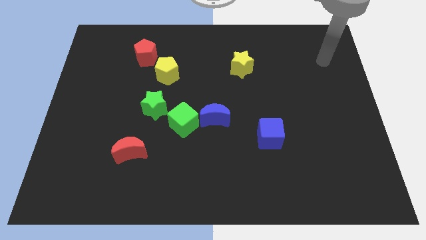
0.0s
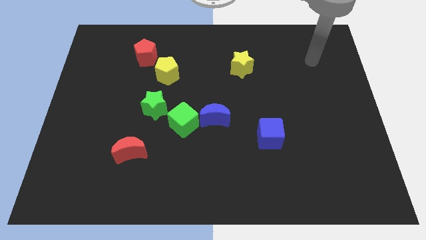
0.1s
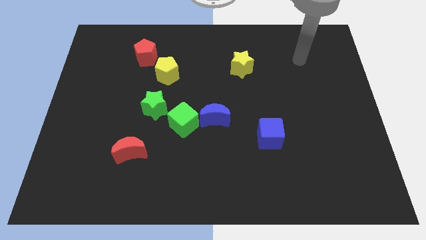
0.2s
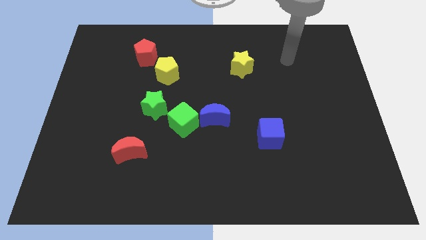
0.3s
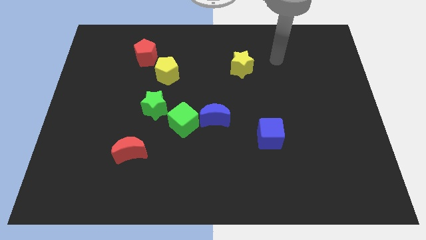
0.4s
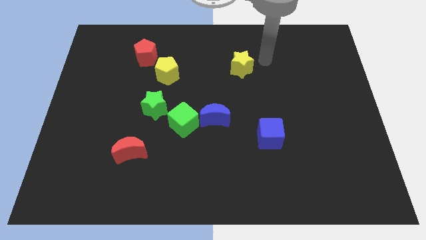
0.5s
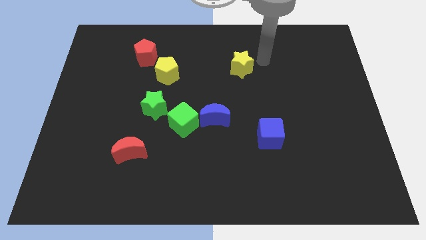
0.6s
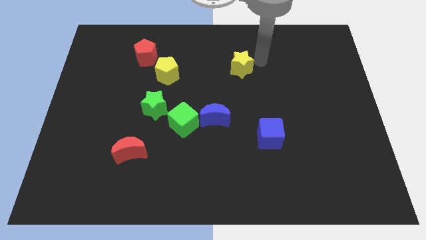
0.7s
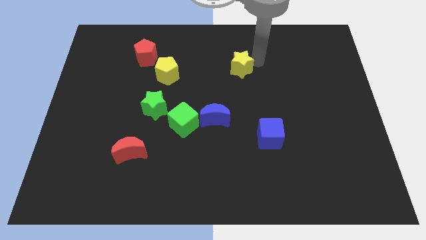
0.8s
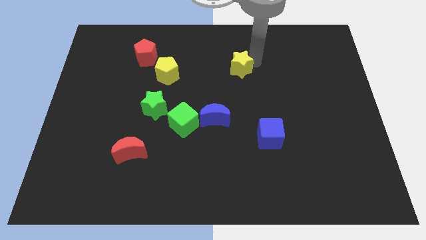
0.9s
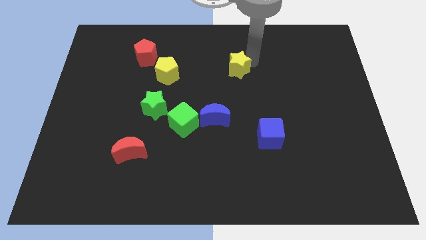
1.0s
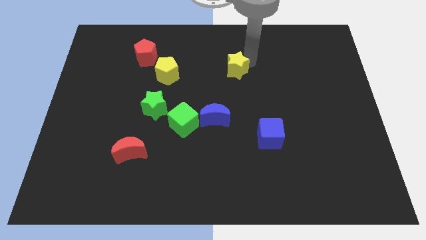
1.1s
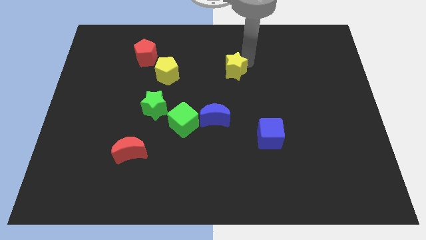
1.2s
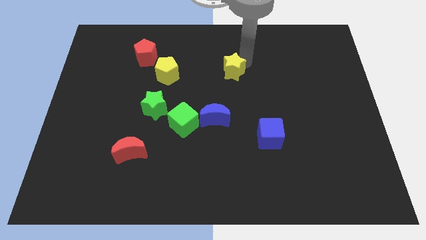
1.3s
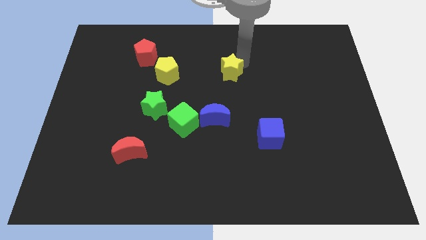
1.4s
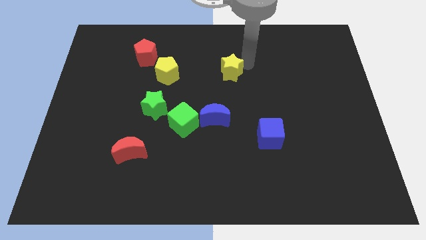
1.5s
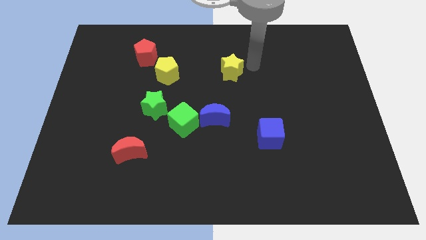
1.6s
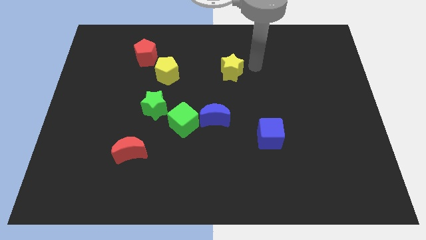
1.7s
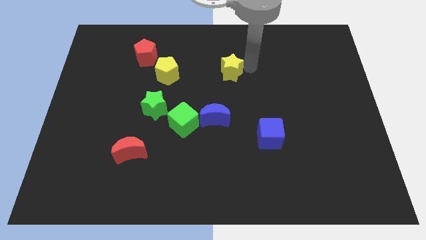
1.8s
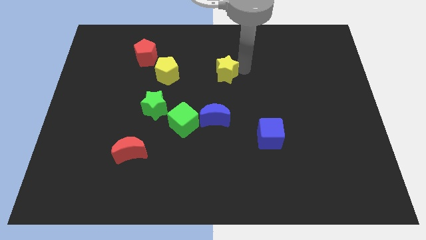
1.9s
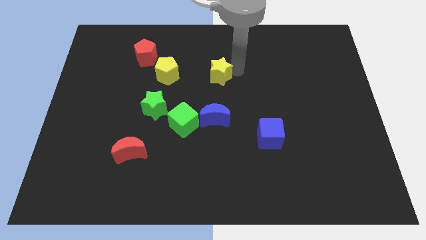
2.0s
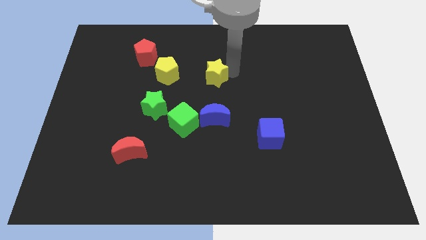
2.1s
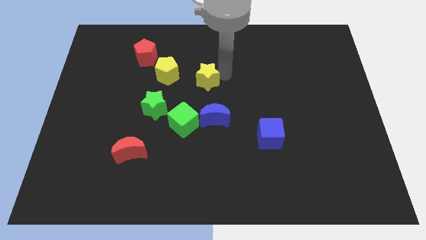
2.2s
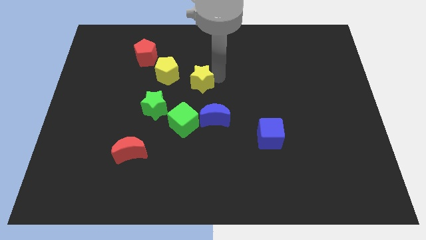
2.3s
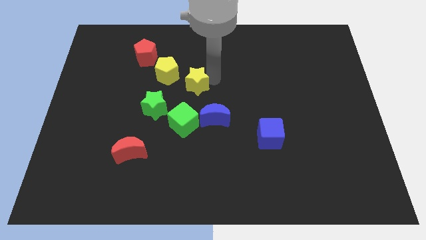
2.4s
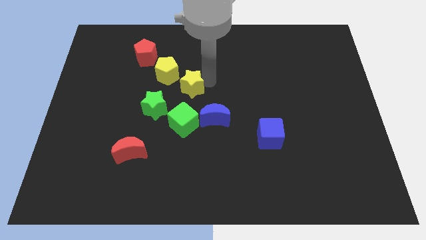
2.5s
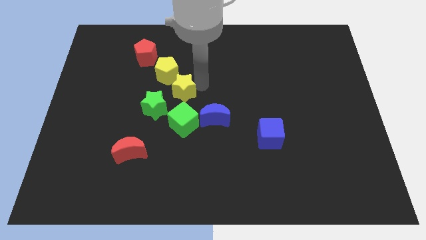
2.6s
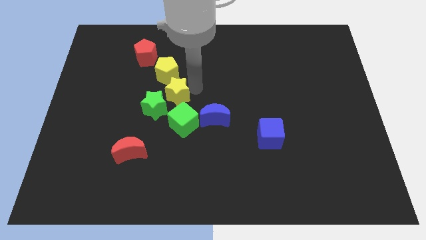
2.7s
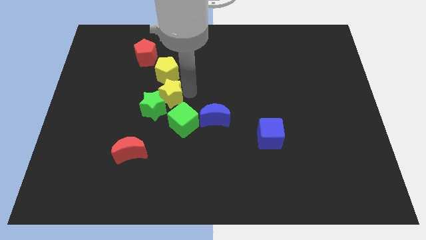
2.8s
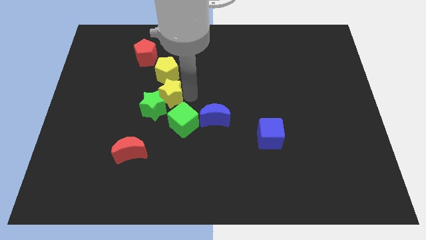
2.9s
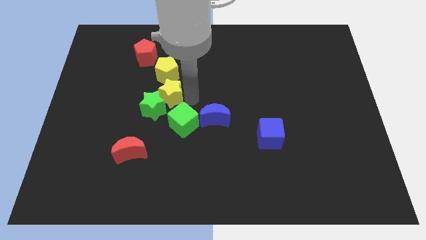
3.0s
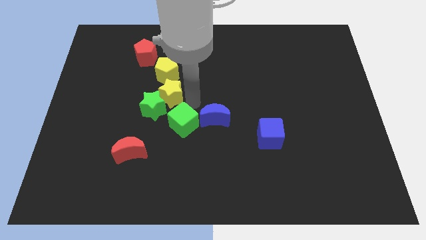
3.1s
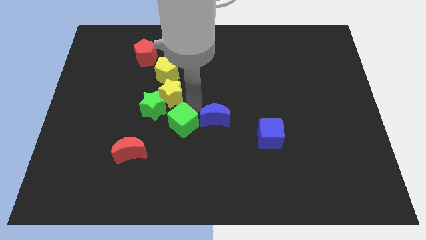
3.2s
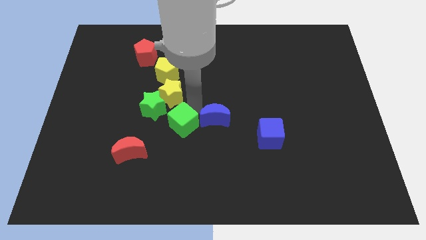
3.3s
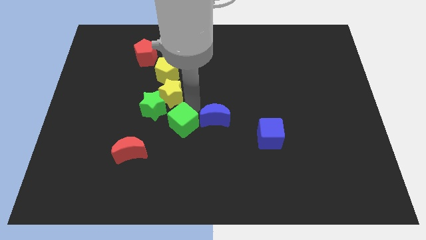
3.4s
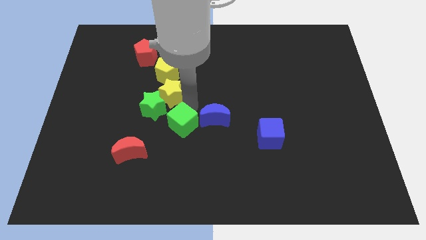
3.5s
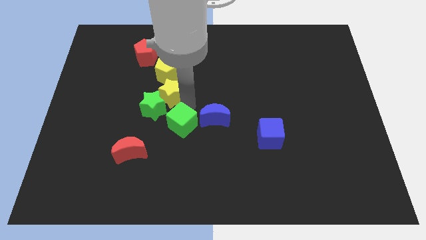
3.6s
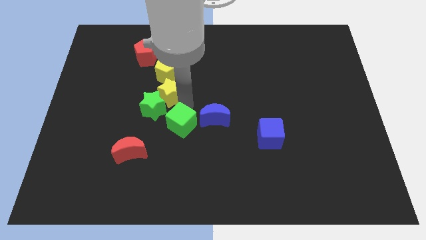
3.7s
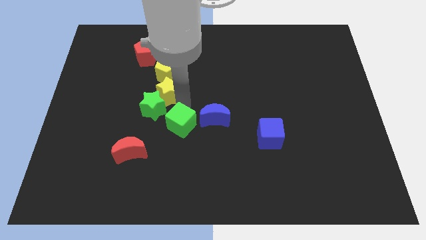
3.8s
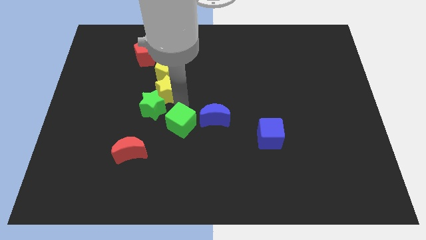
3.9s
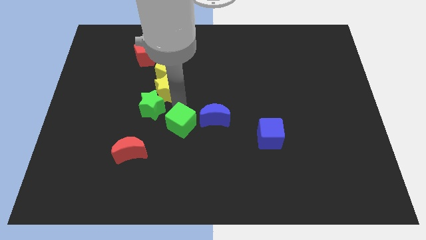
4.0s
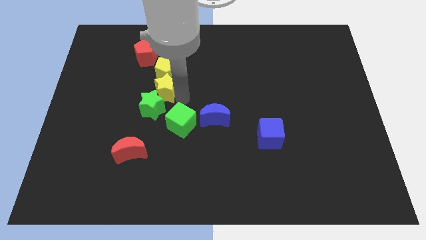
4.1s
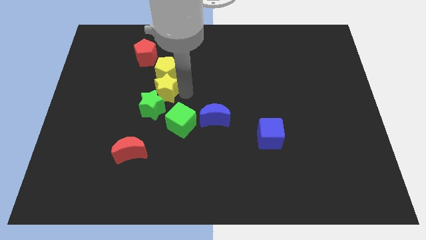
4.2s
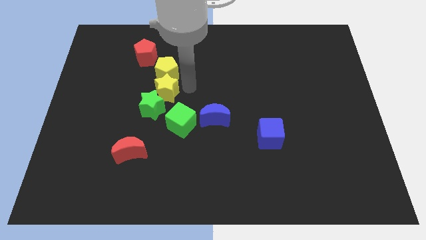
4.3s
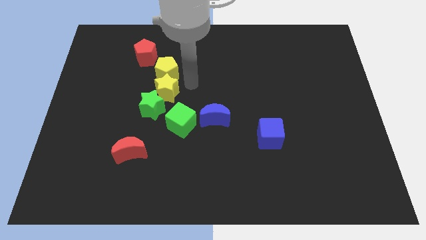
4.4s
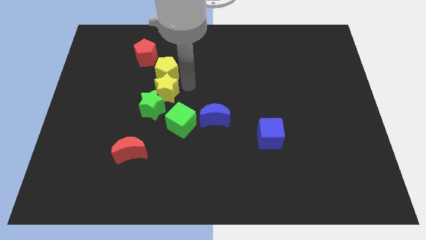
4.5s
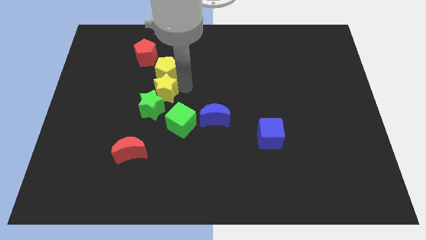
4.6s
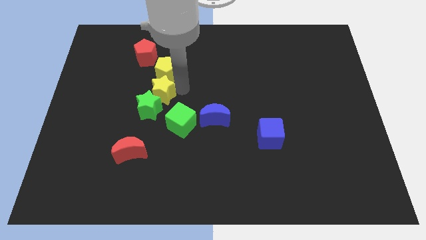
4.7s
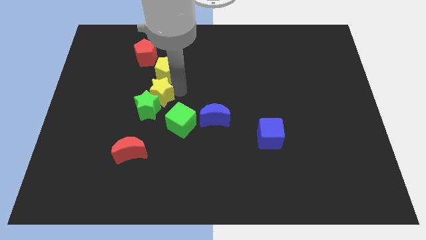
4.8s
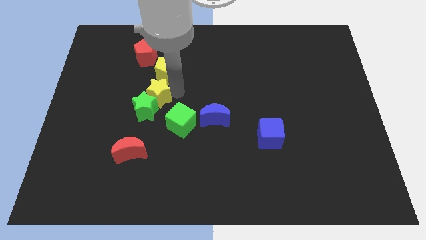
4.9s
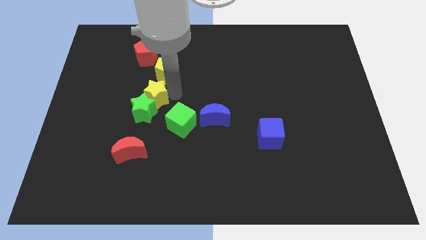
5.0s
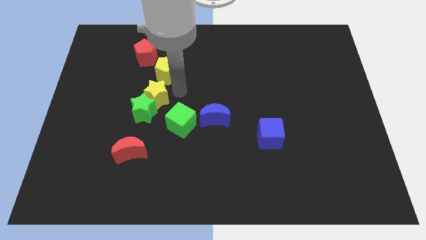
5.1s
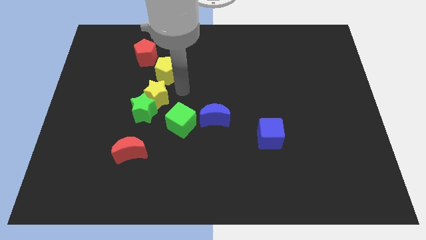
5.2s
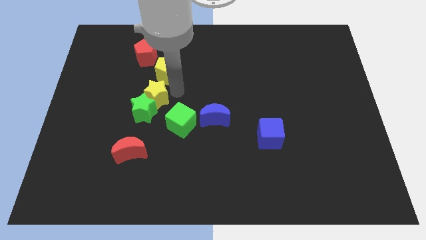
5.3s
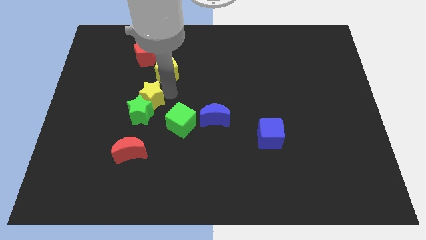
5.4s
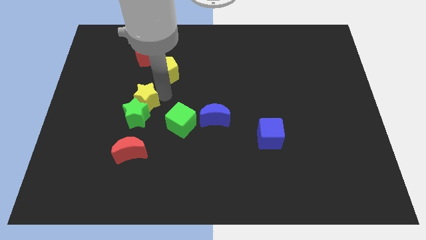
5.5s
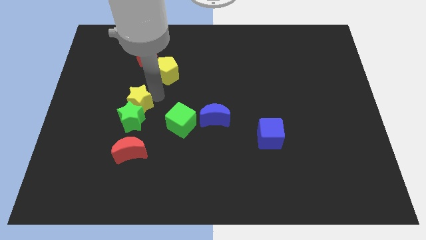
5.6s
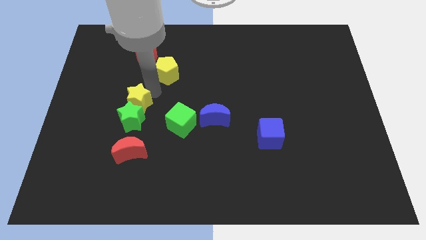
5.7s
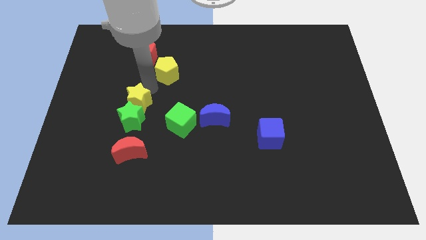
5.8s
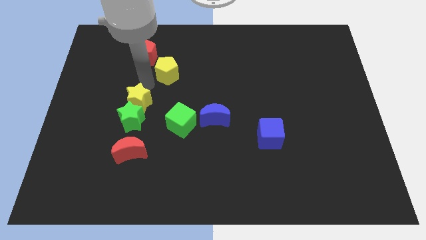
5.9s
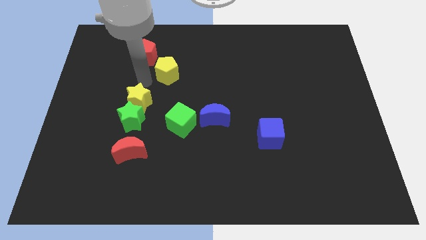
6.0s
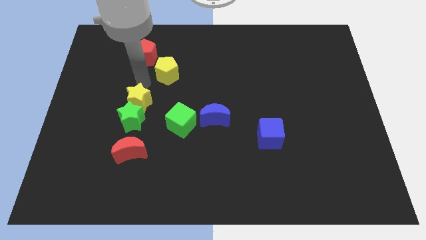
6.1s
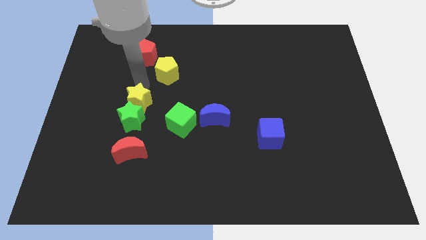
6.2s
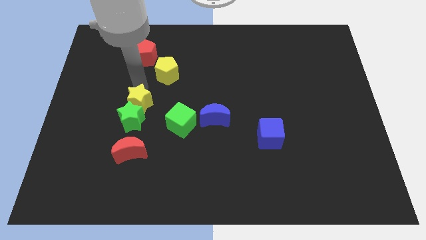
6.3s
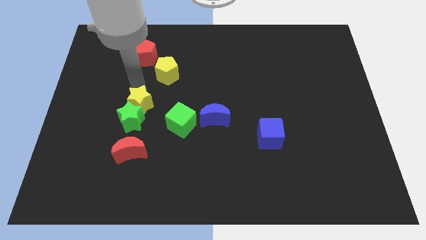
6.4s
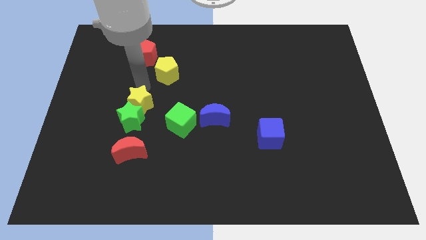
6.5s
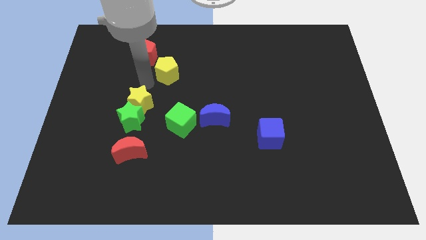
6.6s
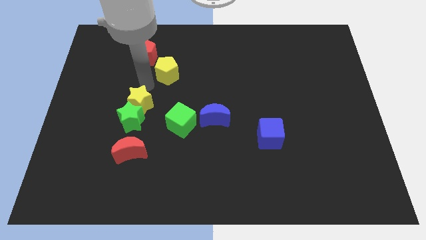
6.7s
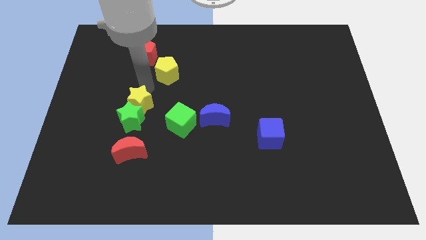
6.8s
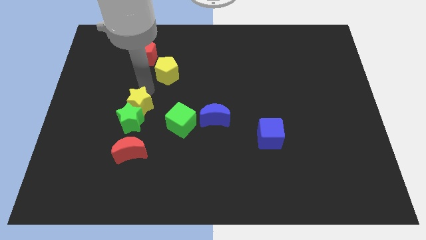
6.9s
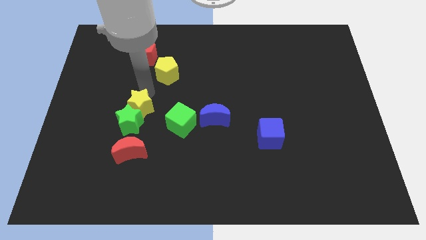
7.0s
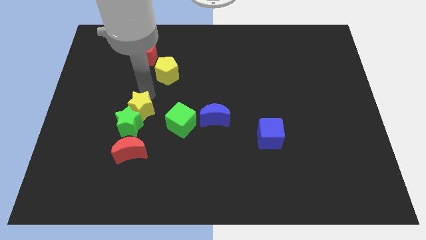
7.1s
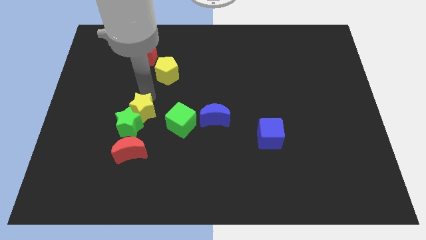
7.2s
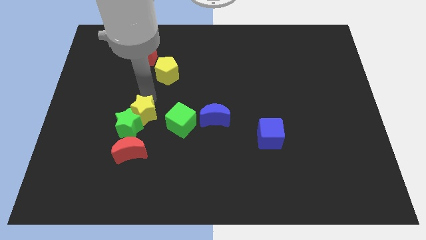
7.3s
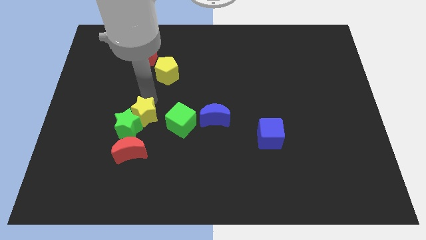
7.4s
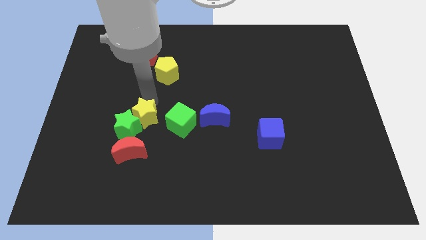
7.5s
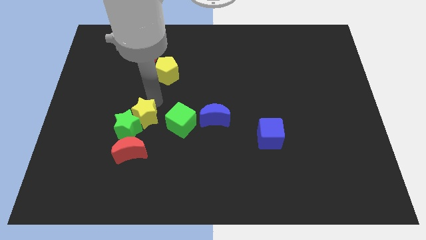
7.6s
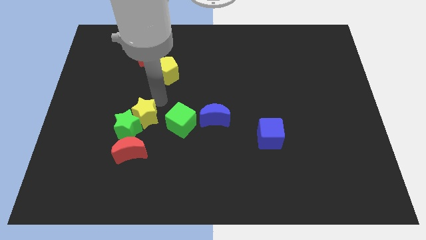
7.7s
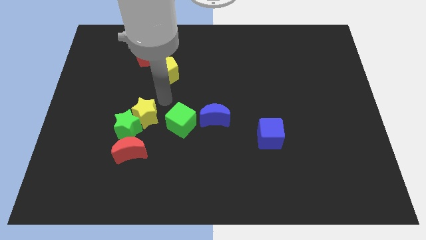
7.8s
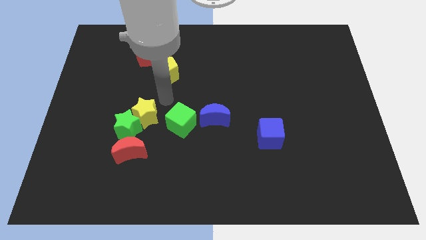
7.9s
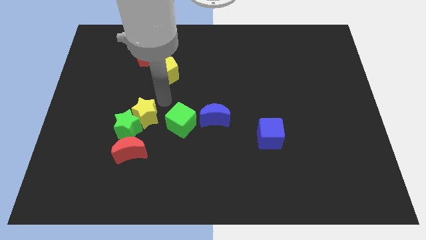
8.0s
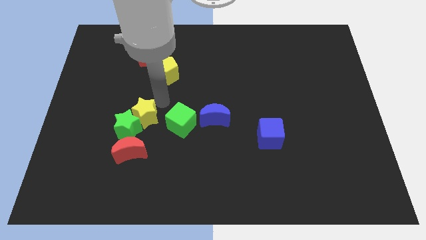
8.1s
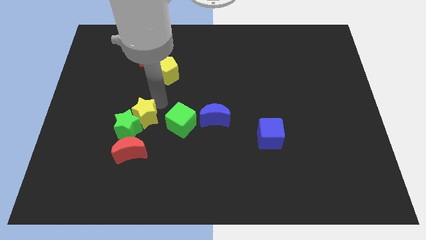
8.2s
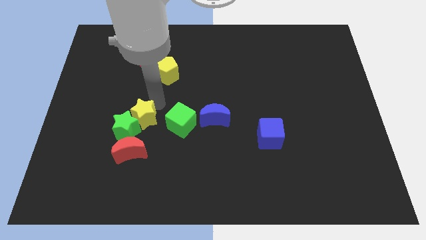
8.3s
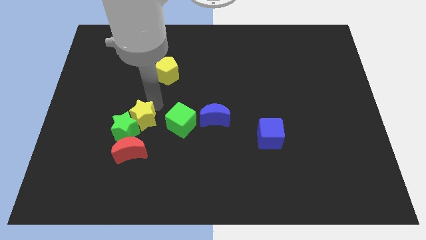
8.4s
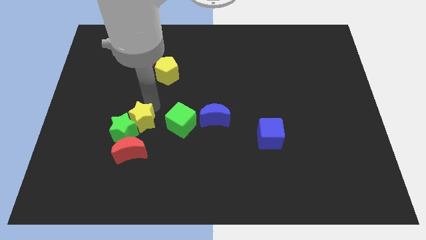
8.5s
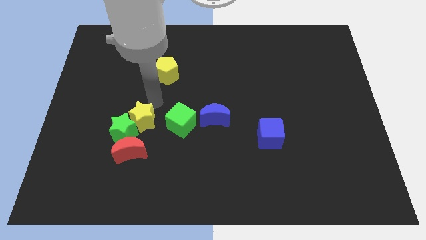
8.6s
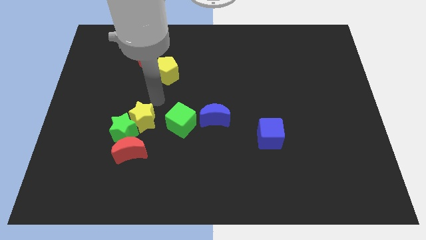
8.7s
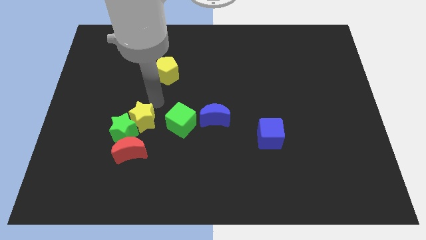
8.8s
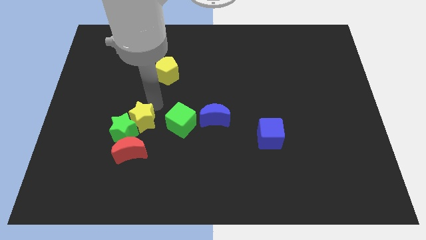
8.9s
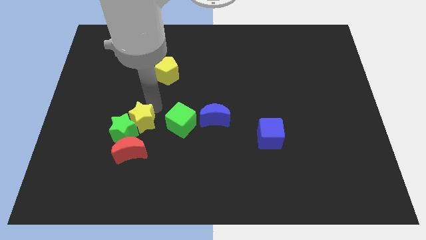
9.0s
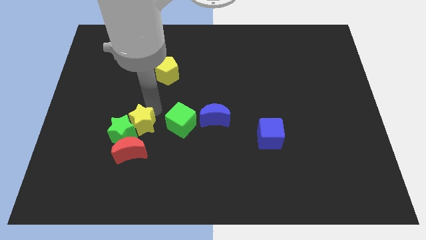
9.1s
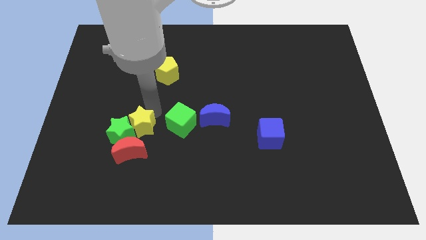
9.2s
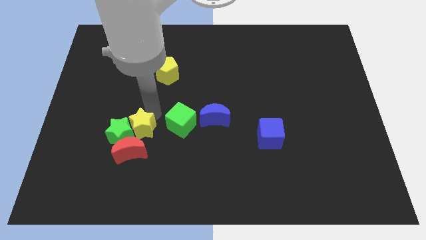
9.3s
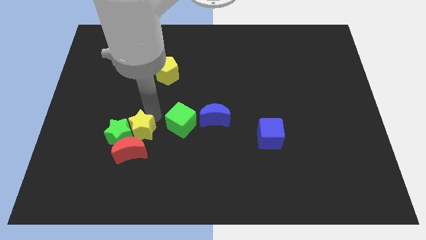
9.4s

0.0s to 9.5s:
move the yellow star to the red moon
